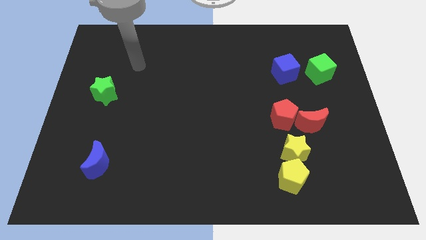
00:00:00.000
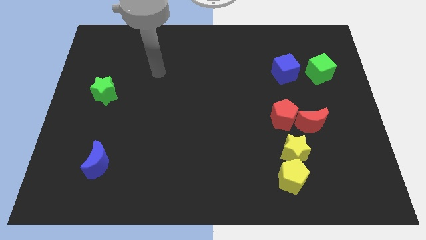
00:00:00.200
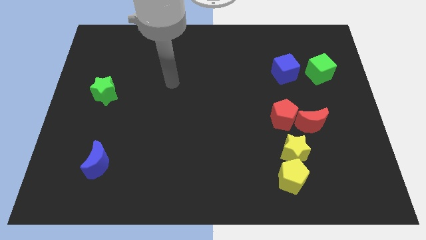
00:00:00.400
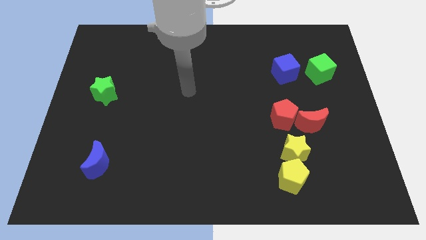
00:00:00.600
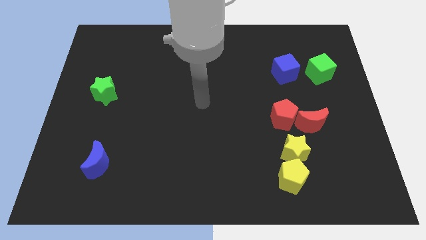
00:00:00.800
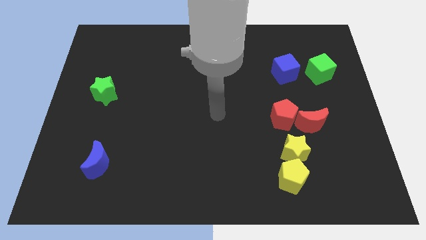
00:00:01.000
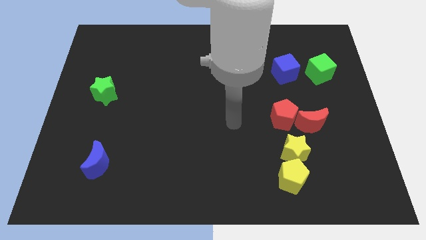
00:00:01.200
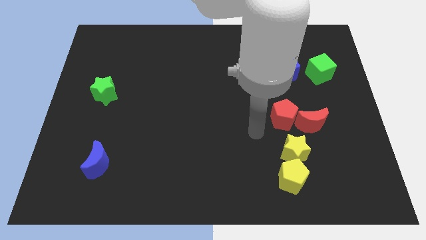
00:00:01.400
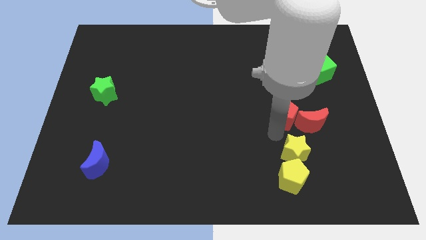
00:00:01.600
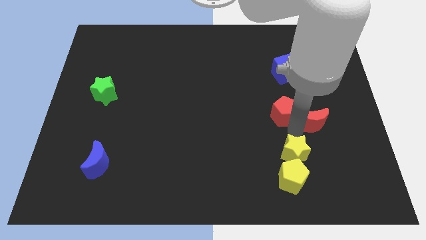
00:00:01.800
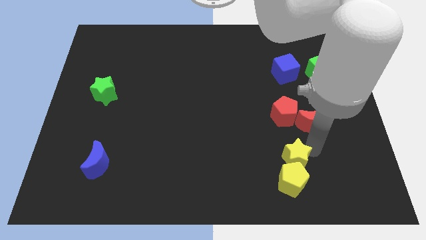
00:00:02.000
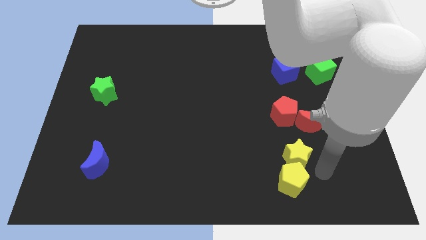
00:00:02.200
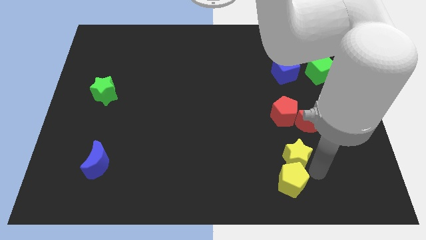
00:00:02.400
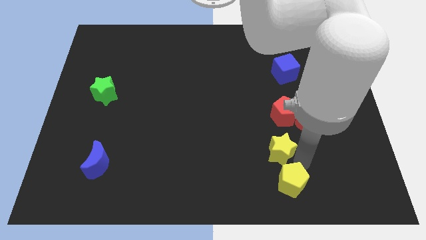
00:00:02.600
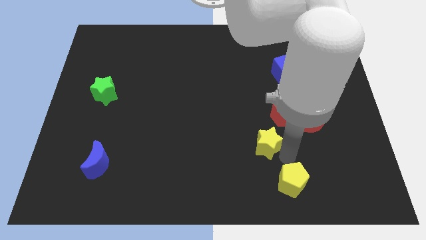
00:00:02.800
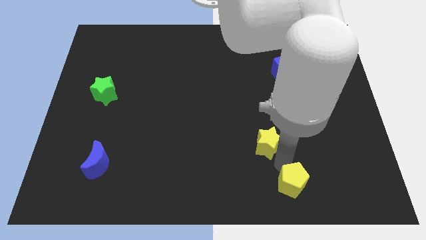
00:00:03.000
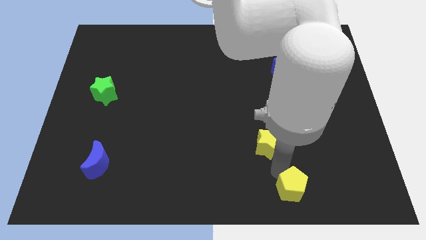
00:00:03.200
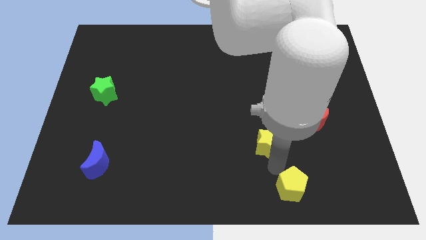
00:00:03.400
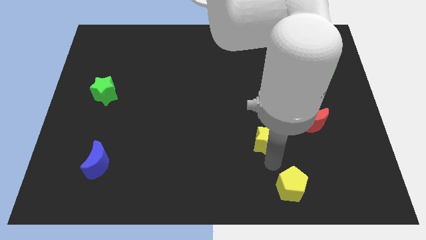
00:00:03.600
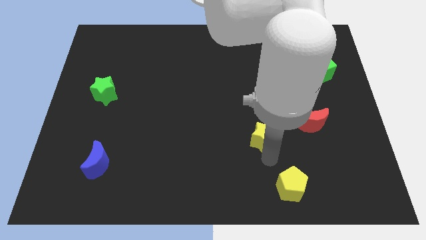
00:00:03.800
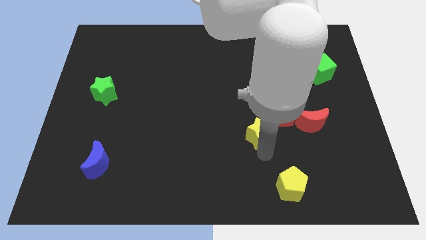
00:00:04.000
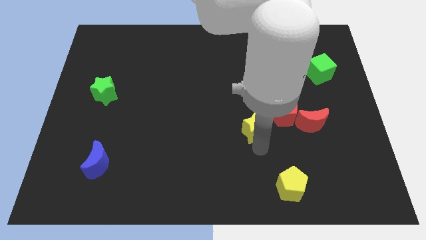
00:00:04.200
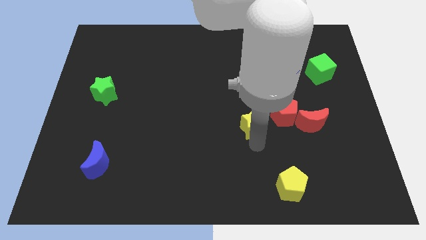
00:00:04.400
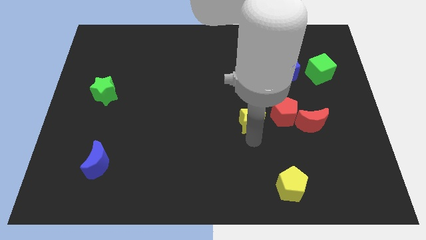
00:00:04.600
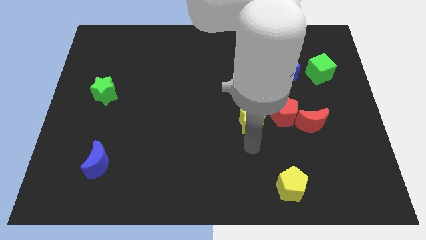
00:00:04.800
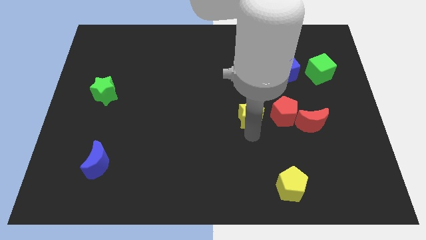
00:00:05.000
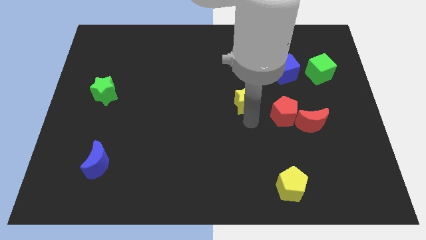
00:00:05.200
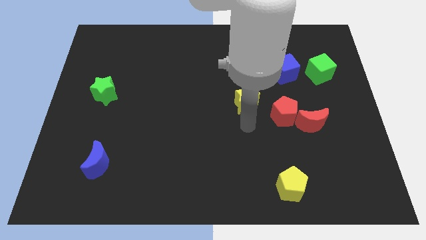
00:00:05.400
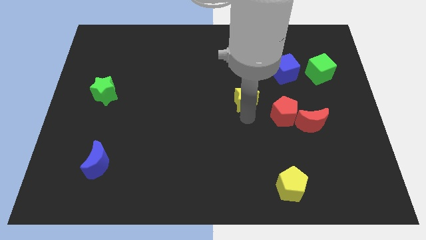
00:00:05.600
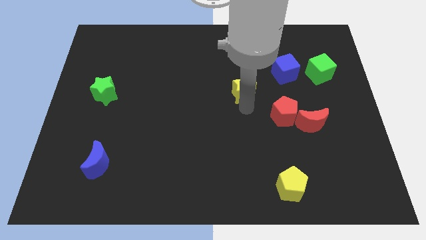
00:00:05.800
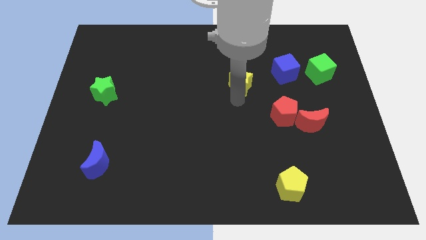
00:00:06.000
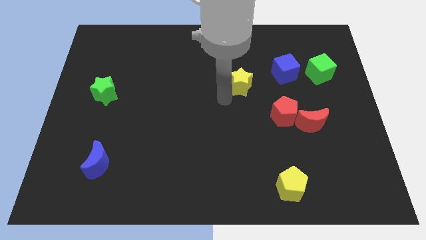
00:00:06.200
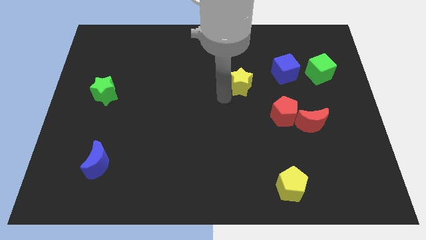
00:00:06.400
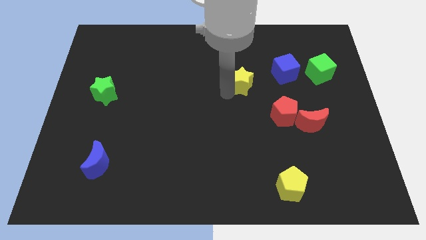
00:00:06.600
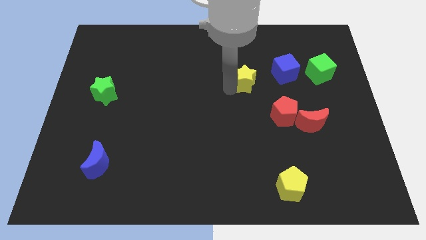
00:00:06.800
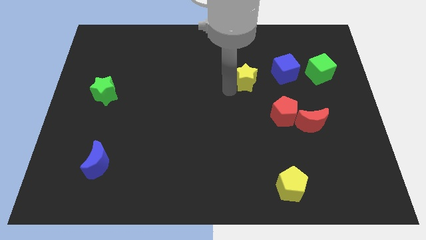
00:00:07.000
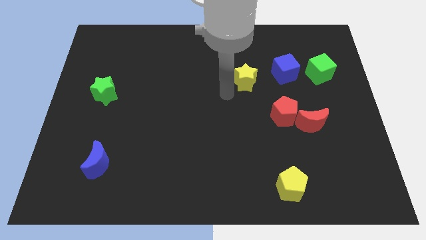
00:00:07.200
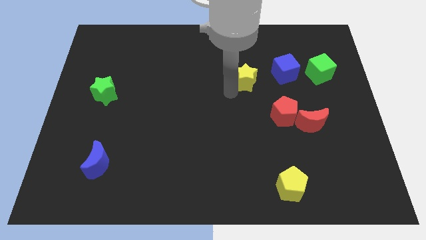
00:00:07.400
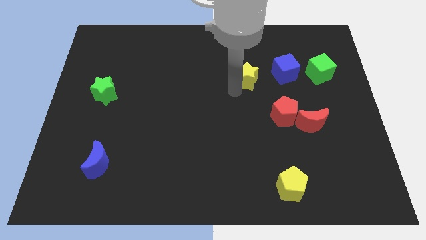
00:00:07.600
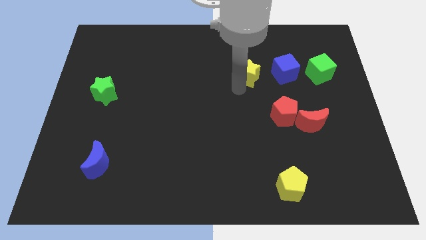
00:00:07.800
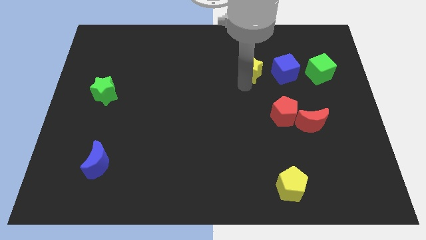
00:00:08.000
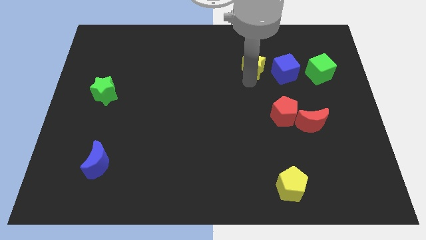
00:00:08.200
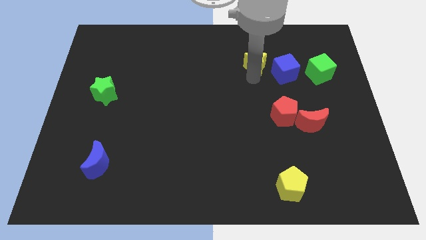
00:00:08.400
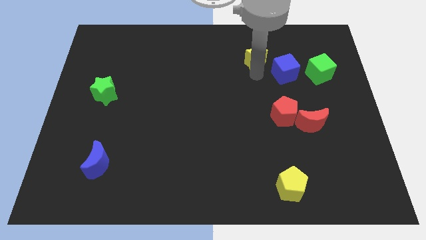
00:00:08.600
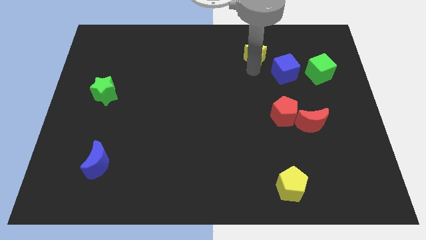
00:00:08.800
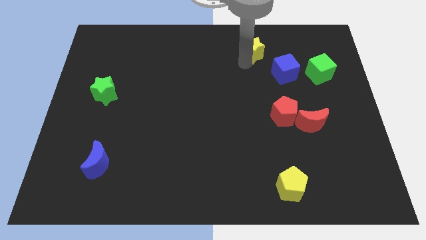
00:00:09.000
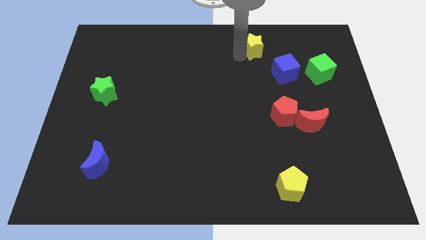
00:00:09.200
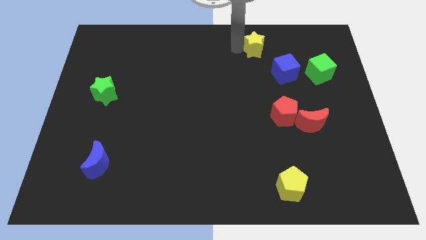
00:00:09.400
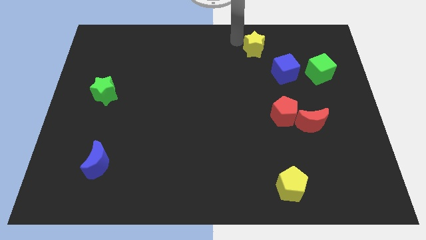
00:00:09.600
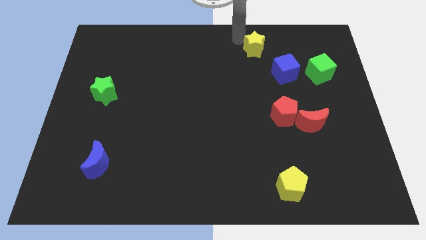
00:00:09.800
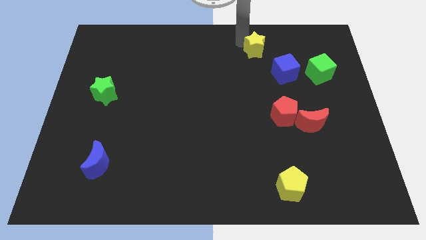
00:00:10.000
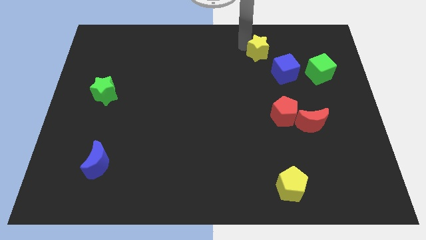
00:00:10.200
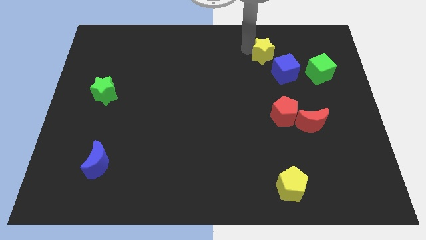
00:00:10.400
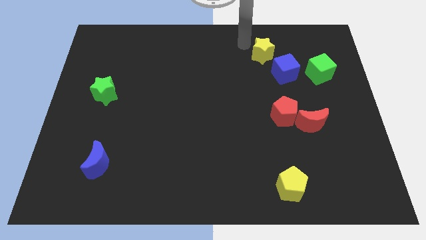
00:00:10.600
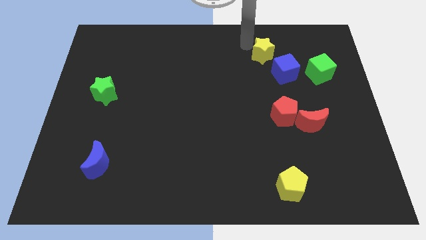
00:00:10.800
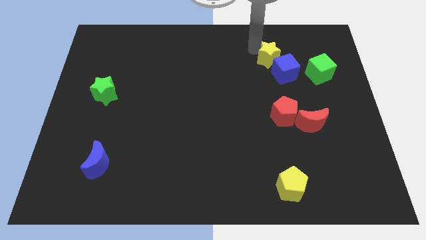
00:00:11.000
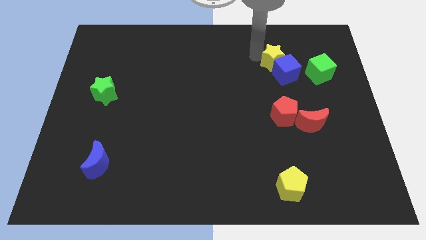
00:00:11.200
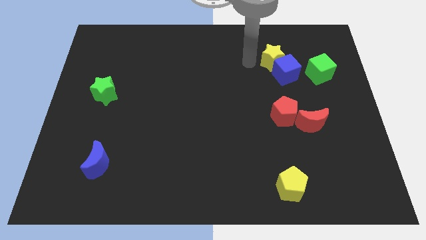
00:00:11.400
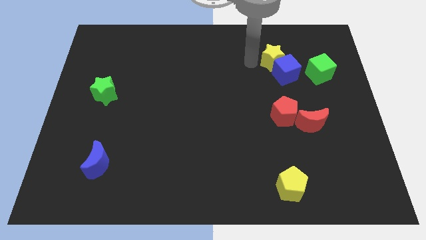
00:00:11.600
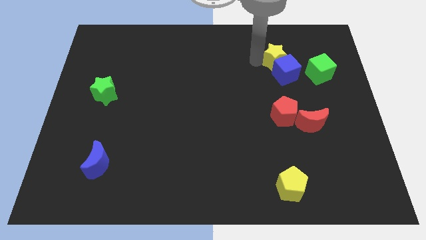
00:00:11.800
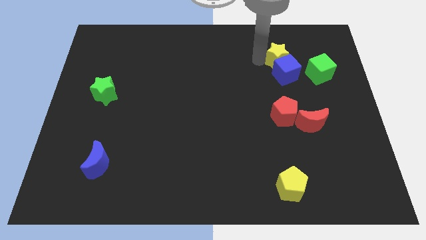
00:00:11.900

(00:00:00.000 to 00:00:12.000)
move the yellow star diagonally up and to the left of the green cube

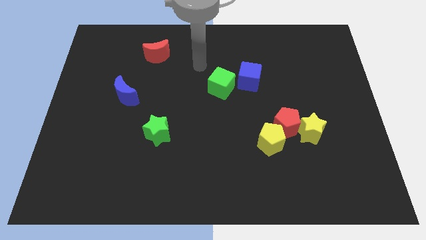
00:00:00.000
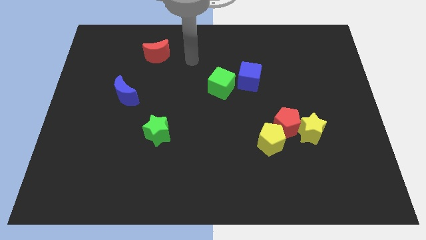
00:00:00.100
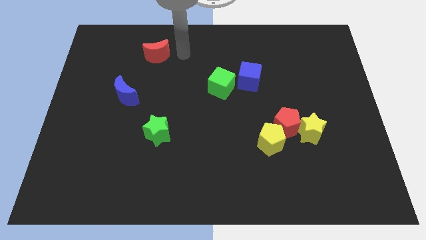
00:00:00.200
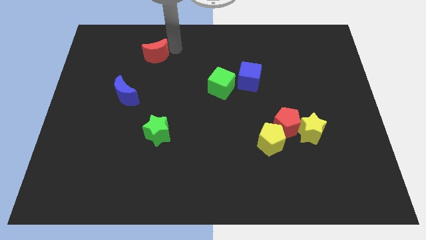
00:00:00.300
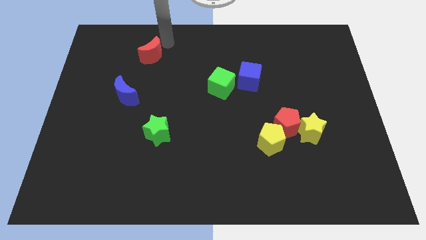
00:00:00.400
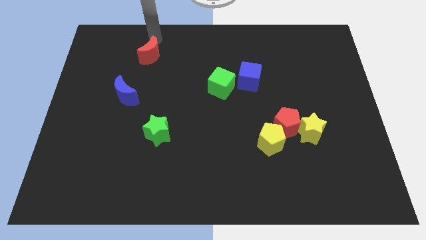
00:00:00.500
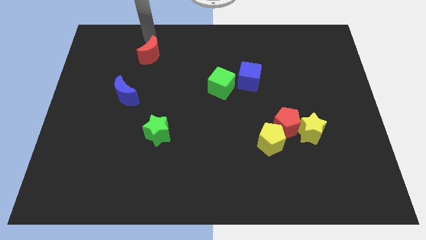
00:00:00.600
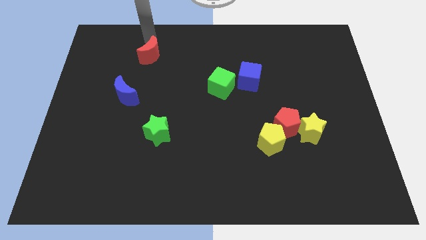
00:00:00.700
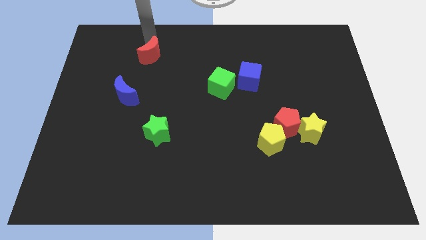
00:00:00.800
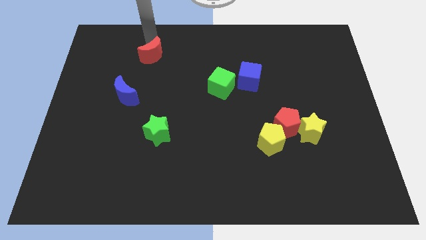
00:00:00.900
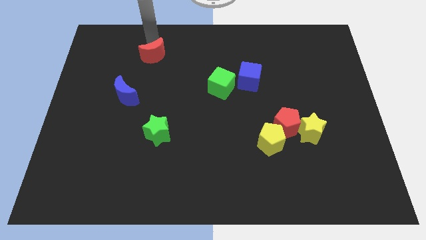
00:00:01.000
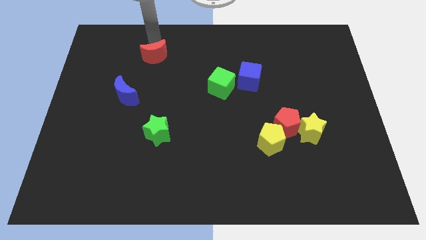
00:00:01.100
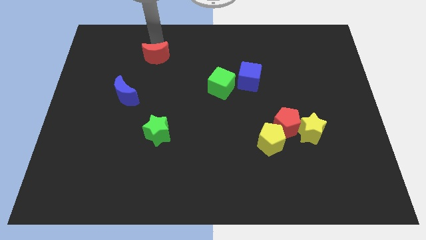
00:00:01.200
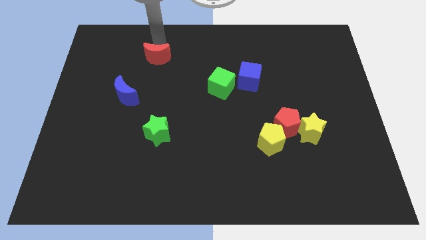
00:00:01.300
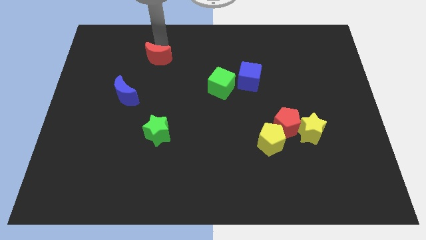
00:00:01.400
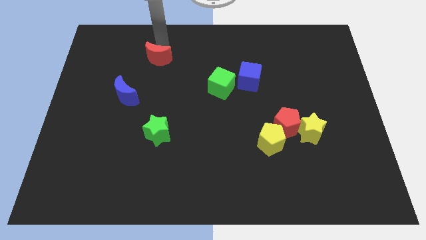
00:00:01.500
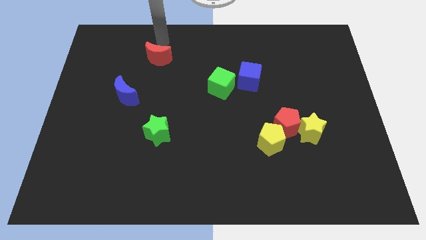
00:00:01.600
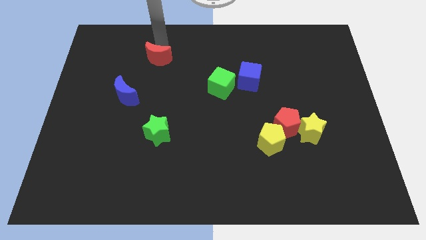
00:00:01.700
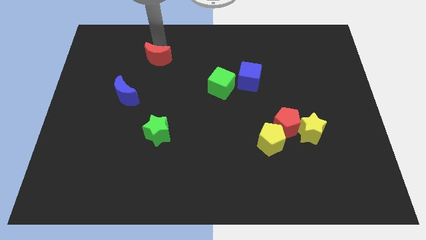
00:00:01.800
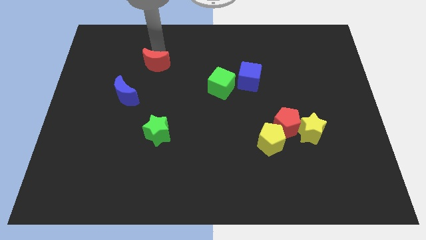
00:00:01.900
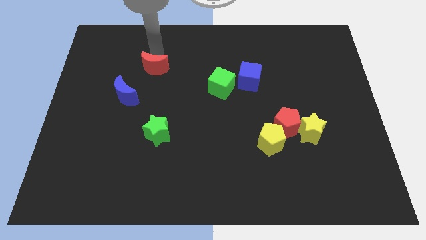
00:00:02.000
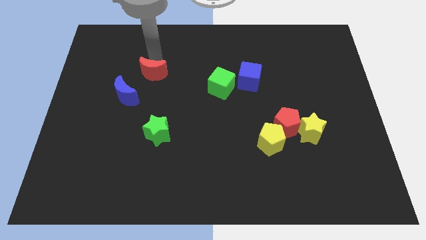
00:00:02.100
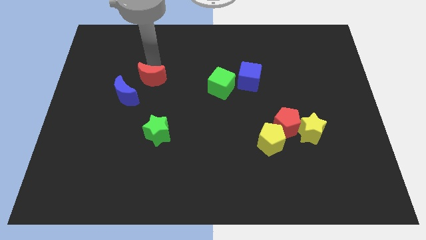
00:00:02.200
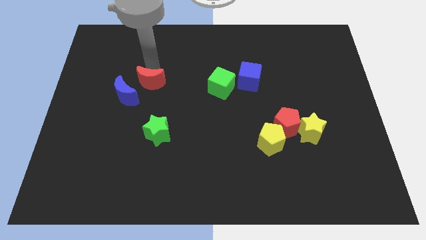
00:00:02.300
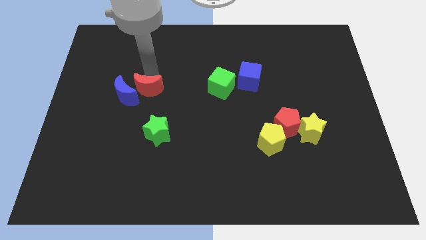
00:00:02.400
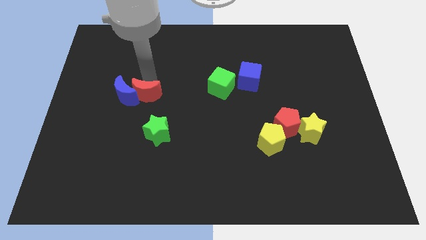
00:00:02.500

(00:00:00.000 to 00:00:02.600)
push the red moon to the bottom right side of the blue moon
